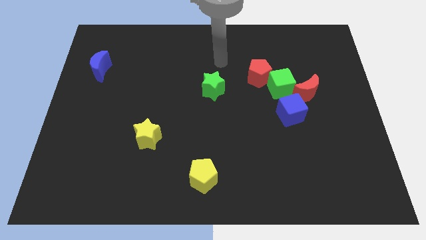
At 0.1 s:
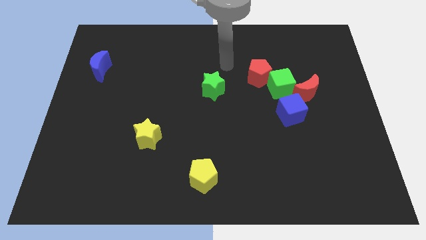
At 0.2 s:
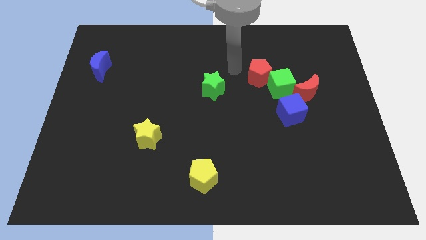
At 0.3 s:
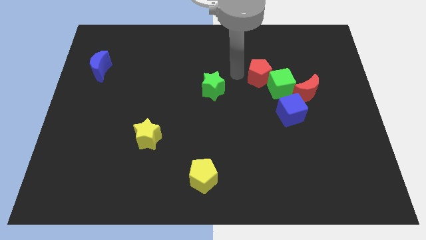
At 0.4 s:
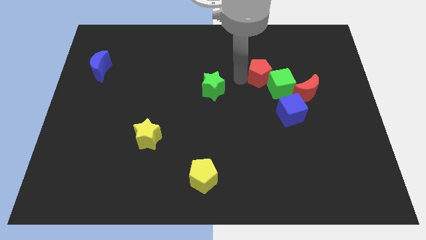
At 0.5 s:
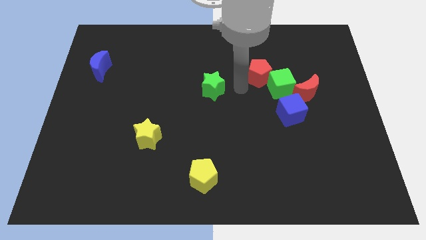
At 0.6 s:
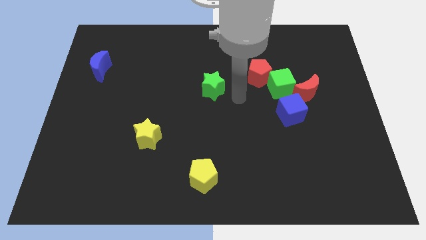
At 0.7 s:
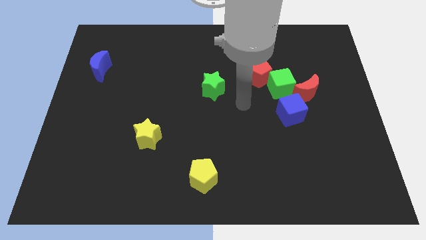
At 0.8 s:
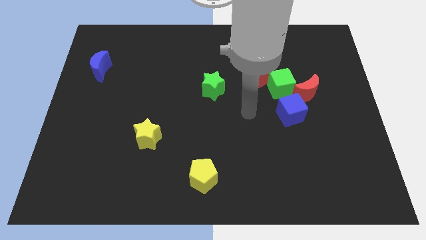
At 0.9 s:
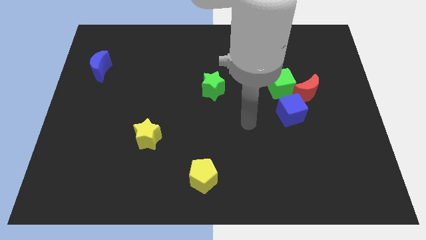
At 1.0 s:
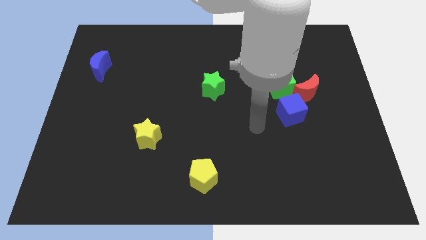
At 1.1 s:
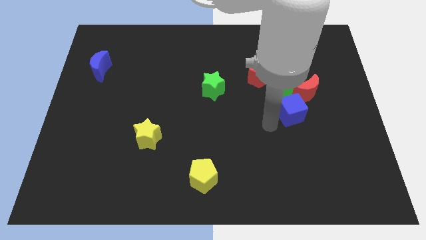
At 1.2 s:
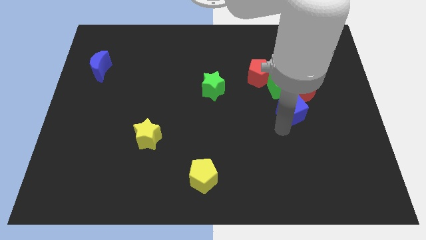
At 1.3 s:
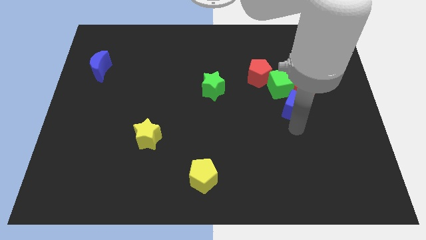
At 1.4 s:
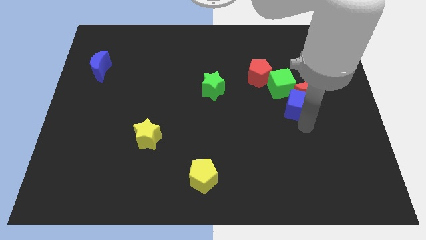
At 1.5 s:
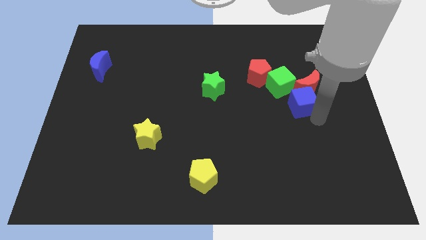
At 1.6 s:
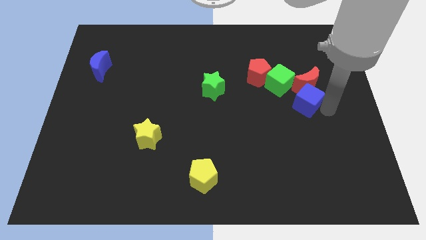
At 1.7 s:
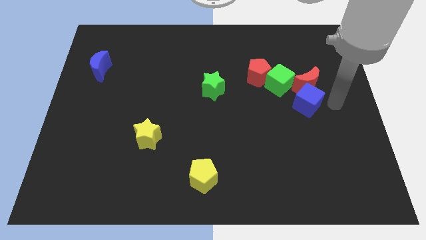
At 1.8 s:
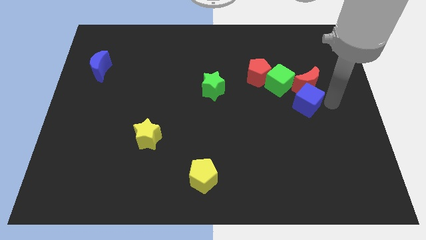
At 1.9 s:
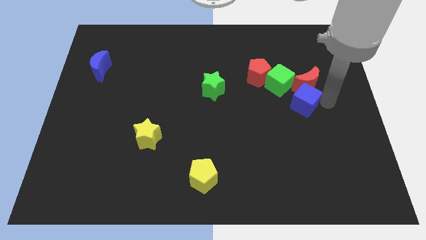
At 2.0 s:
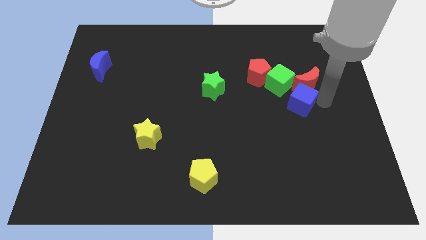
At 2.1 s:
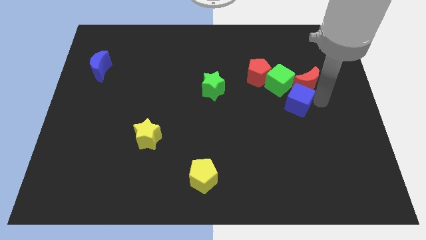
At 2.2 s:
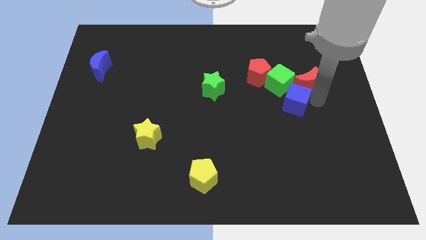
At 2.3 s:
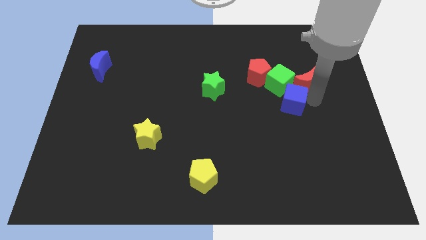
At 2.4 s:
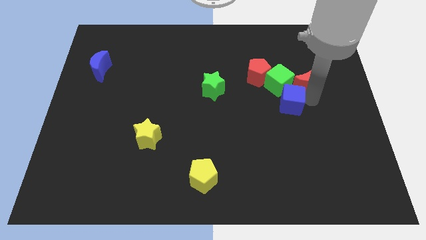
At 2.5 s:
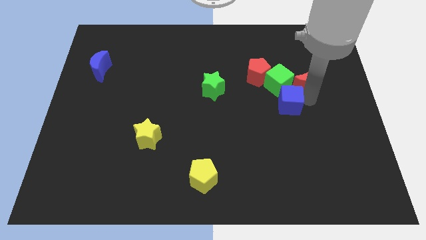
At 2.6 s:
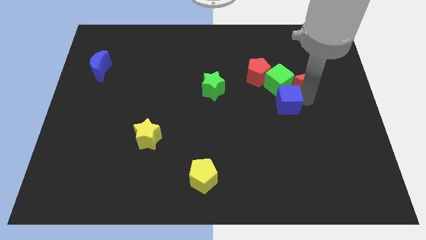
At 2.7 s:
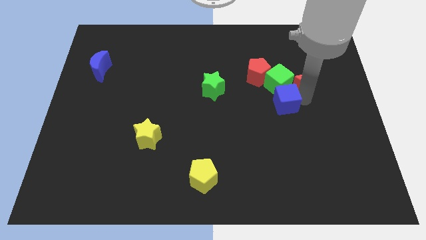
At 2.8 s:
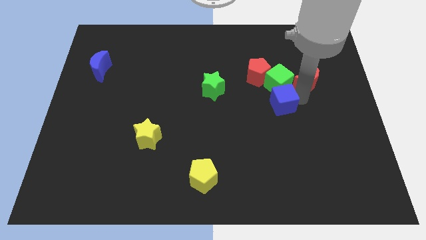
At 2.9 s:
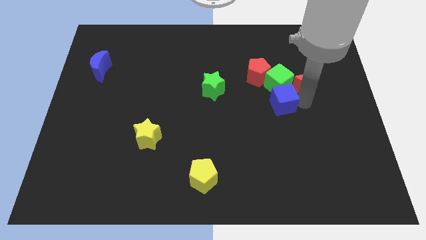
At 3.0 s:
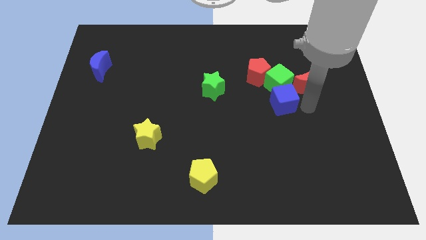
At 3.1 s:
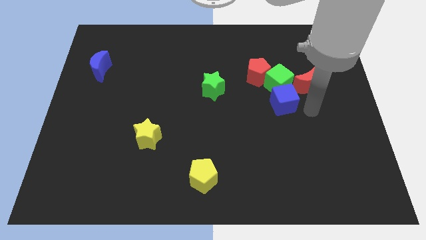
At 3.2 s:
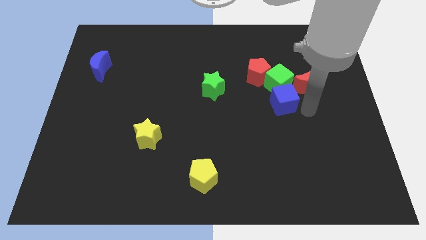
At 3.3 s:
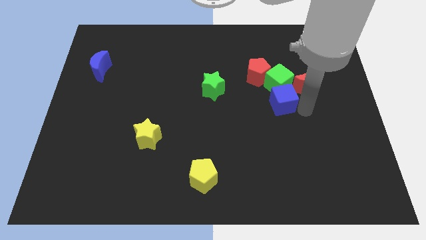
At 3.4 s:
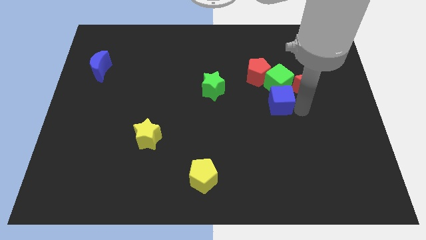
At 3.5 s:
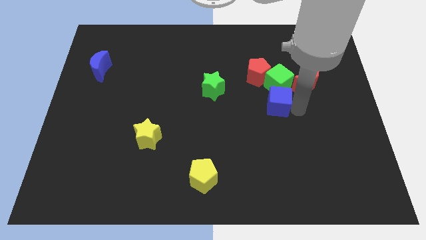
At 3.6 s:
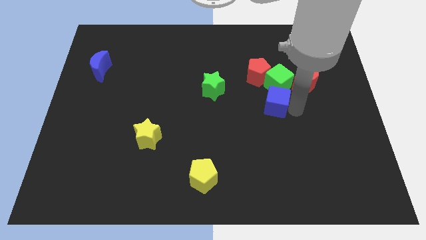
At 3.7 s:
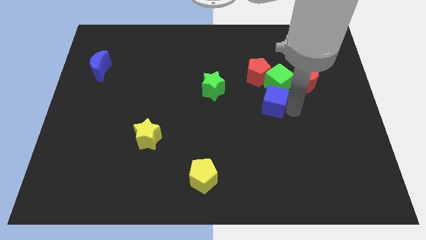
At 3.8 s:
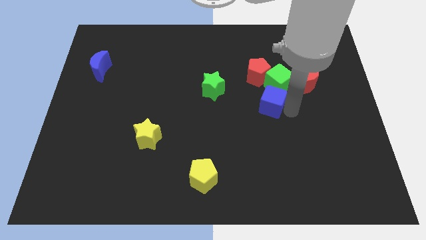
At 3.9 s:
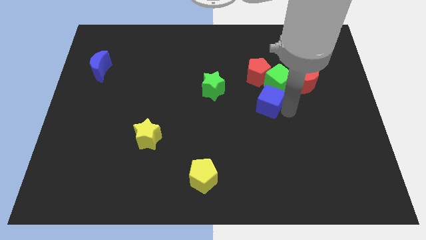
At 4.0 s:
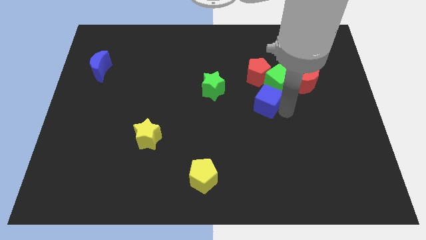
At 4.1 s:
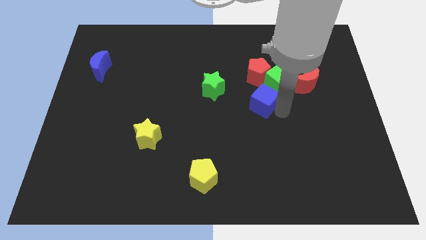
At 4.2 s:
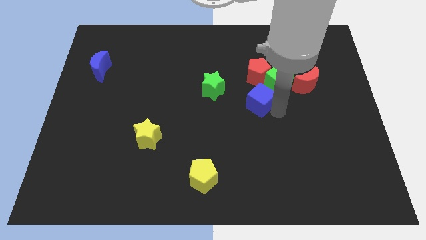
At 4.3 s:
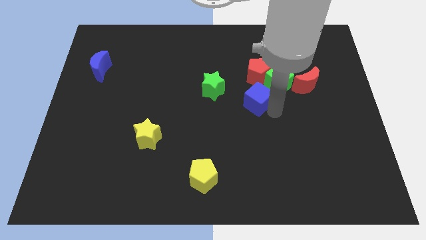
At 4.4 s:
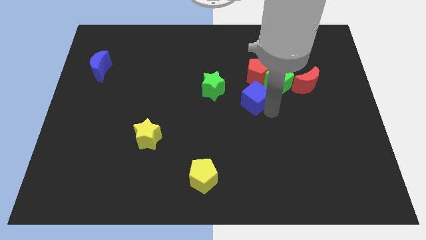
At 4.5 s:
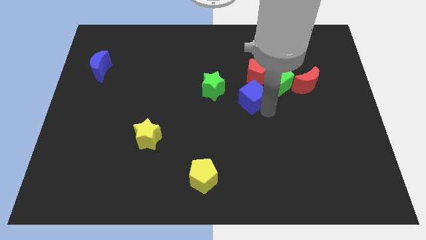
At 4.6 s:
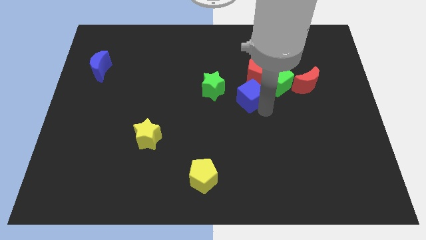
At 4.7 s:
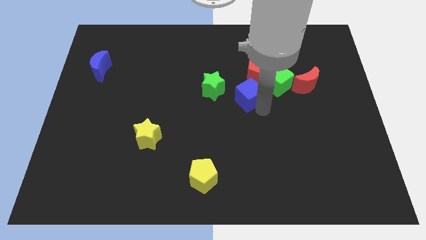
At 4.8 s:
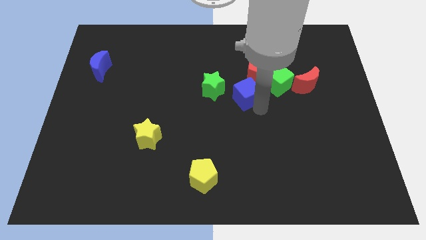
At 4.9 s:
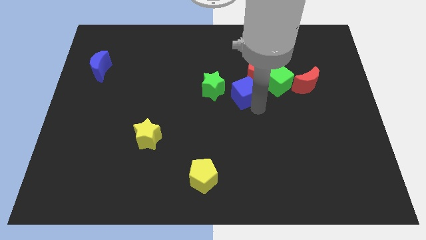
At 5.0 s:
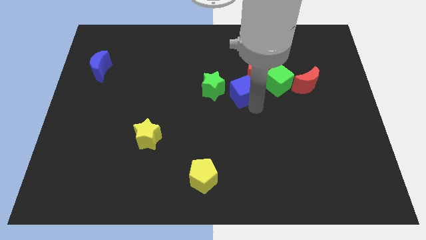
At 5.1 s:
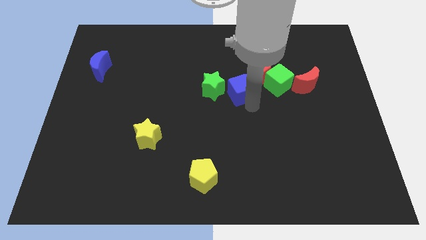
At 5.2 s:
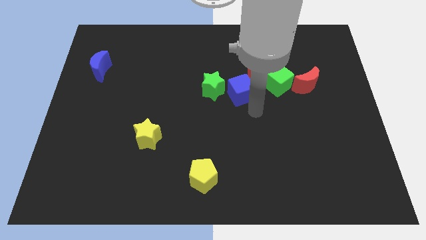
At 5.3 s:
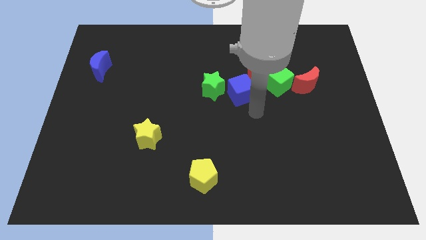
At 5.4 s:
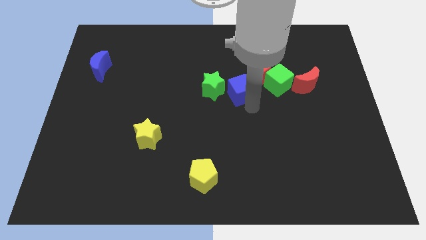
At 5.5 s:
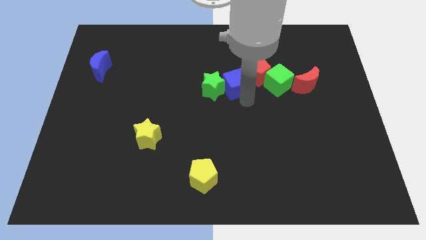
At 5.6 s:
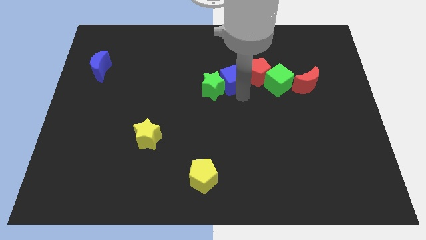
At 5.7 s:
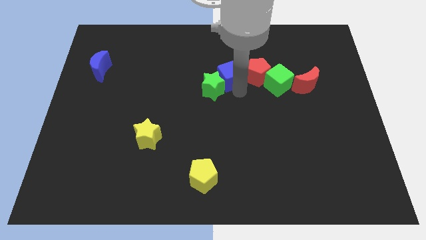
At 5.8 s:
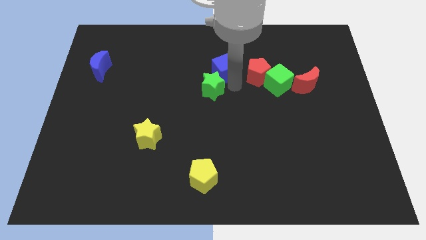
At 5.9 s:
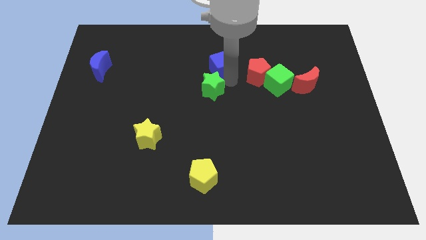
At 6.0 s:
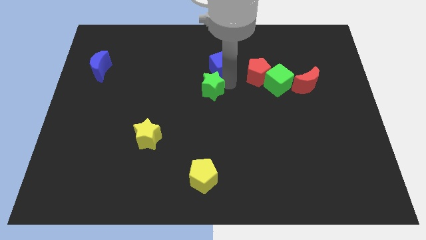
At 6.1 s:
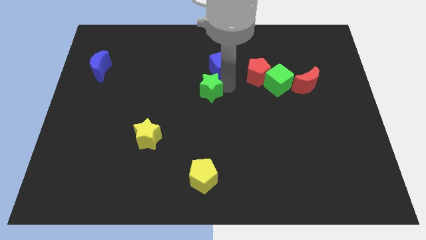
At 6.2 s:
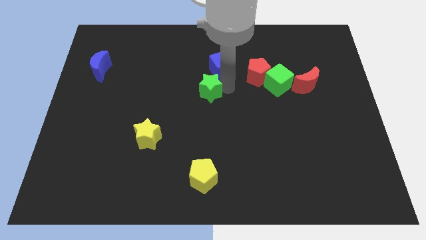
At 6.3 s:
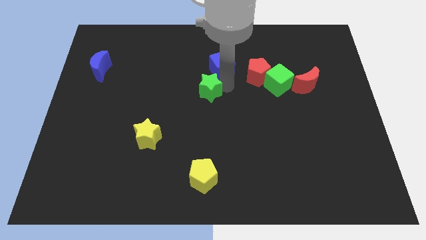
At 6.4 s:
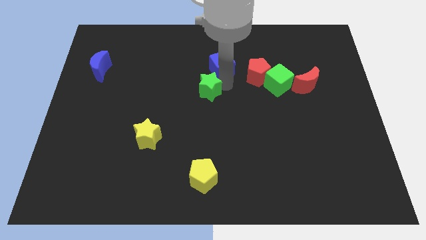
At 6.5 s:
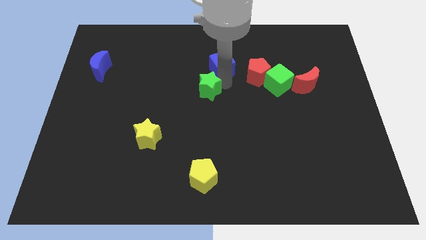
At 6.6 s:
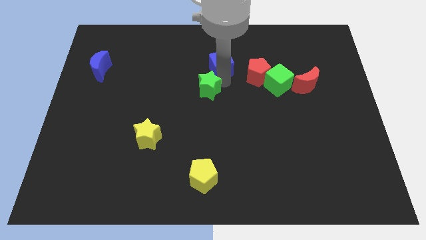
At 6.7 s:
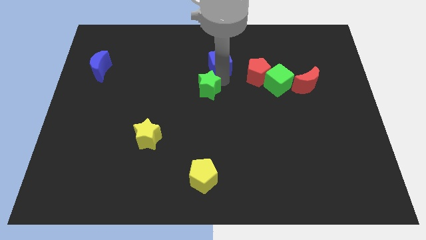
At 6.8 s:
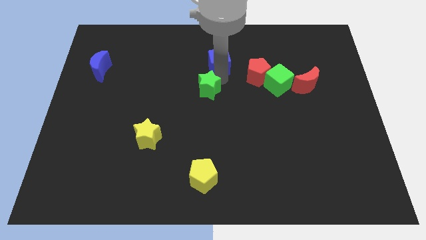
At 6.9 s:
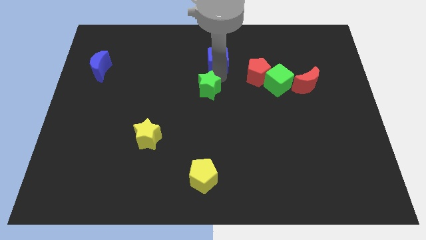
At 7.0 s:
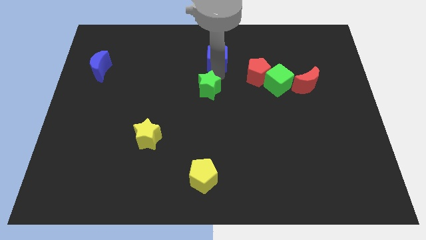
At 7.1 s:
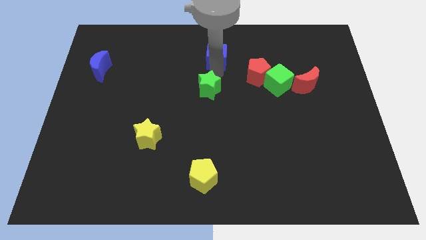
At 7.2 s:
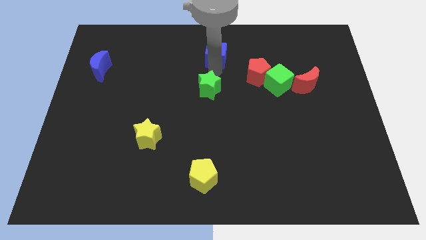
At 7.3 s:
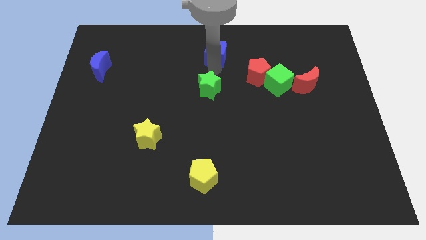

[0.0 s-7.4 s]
move the blue cube to the top side
